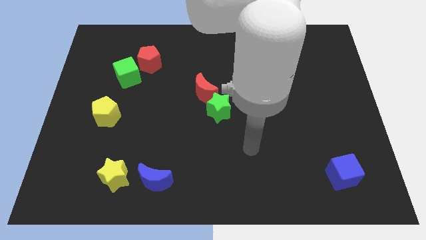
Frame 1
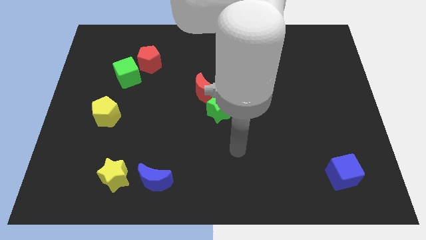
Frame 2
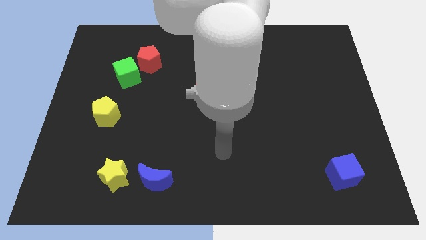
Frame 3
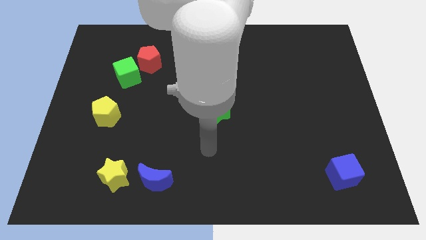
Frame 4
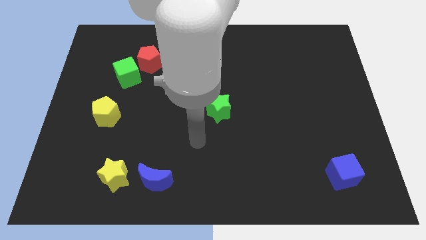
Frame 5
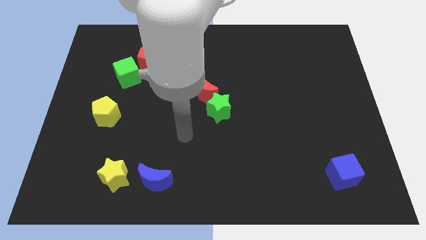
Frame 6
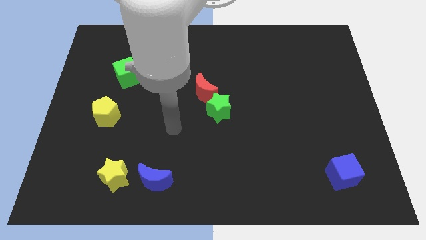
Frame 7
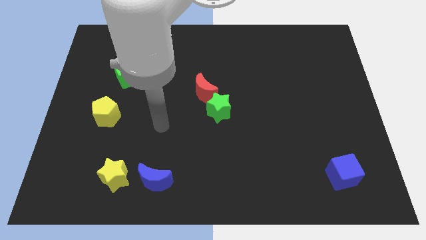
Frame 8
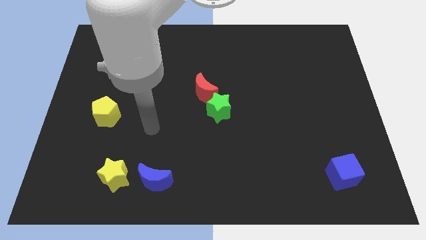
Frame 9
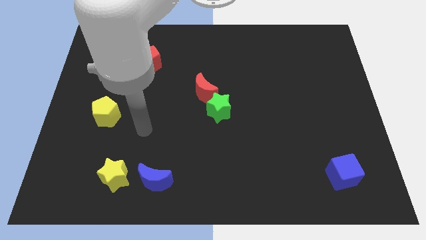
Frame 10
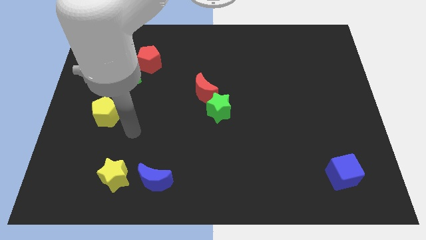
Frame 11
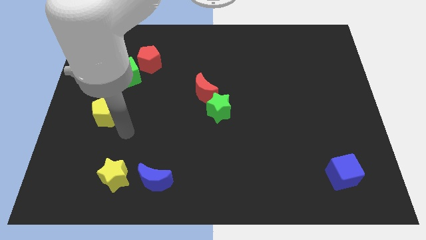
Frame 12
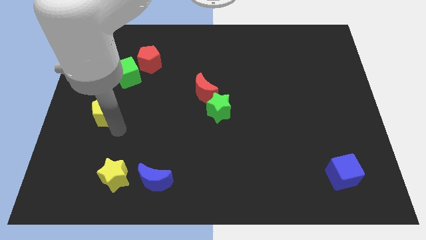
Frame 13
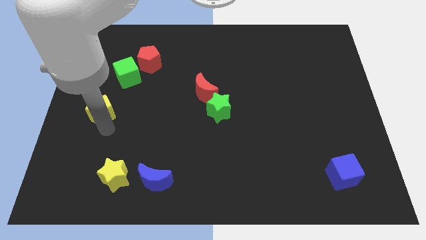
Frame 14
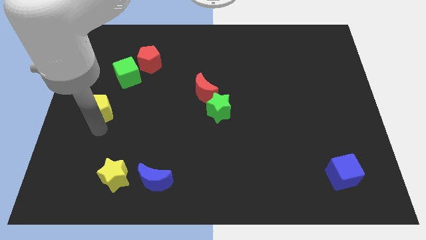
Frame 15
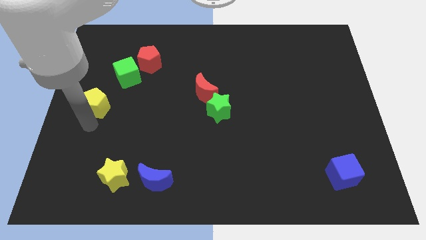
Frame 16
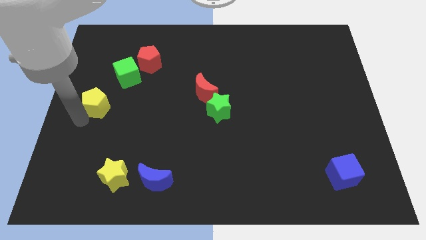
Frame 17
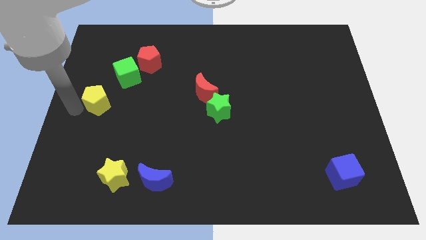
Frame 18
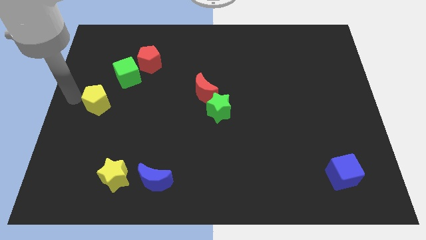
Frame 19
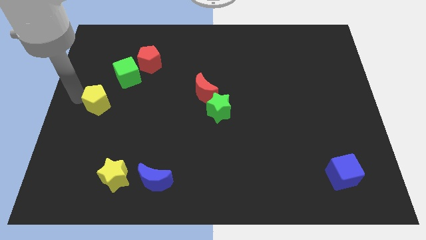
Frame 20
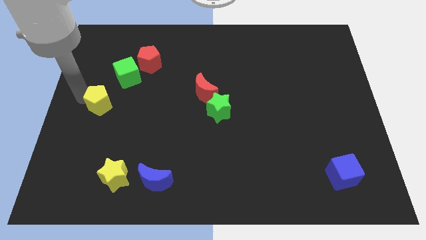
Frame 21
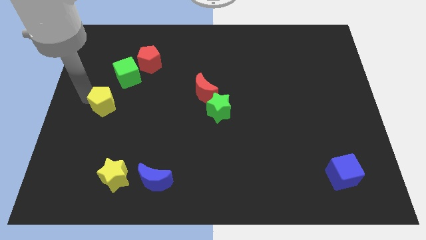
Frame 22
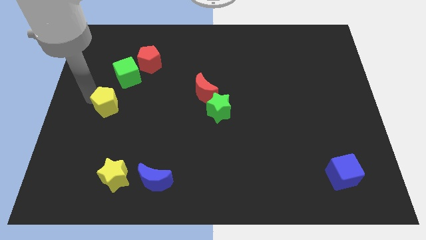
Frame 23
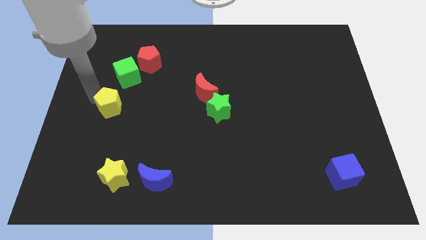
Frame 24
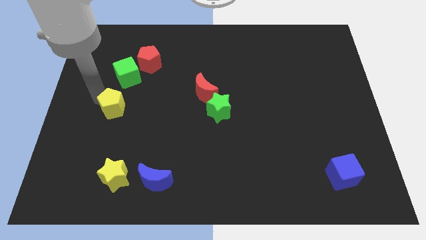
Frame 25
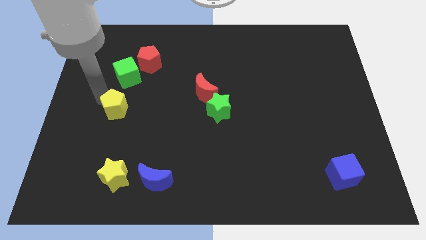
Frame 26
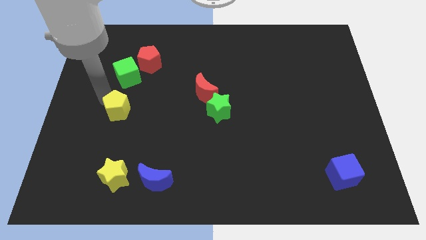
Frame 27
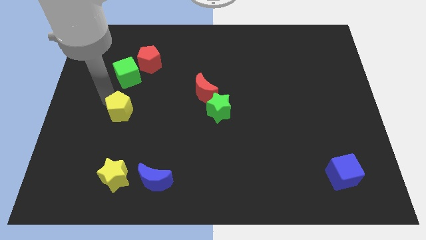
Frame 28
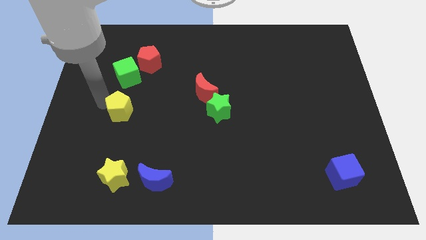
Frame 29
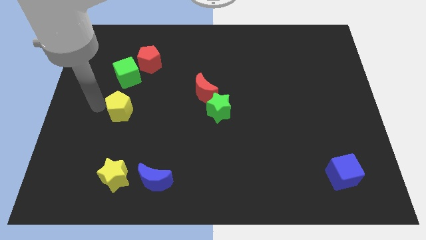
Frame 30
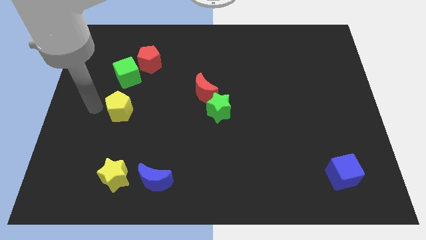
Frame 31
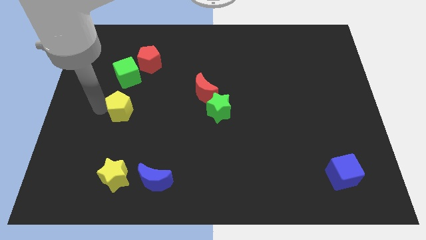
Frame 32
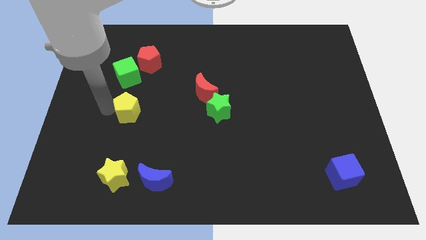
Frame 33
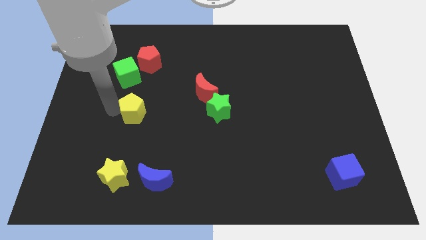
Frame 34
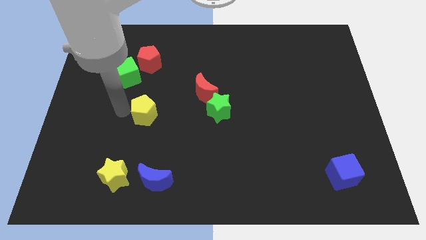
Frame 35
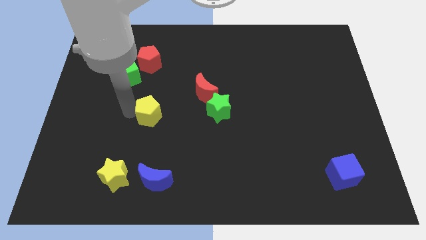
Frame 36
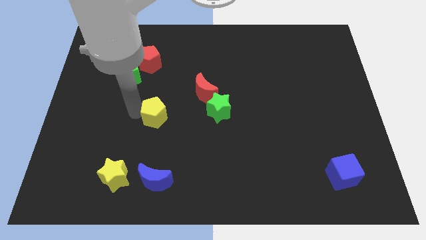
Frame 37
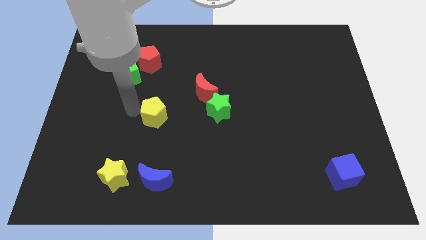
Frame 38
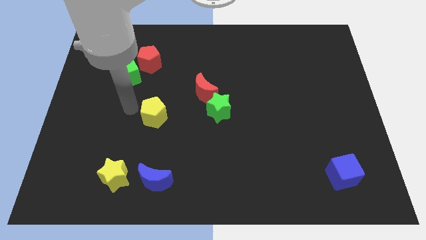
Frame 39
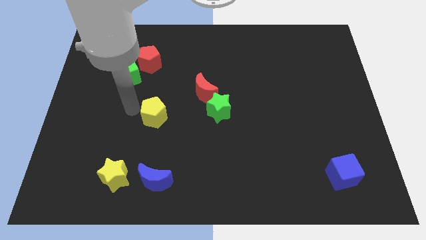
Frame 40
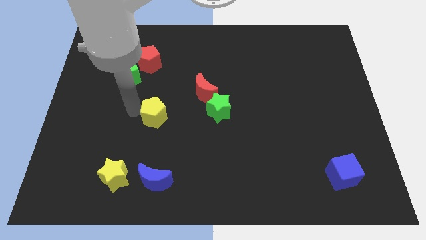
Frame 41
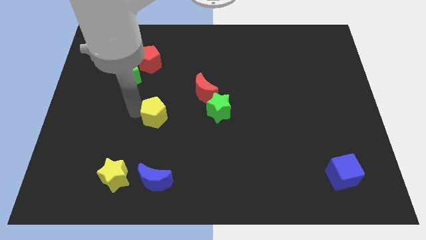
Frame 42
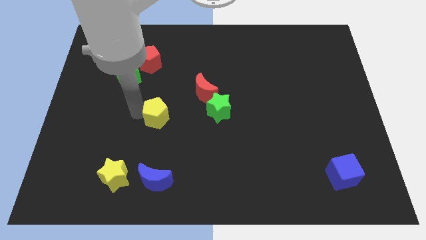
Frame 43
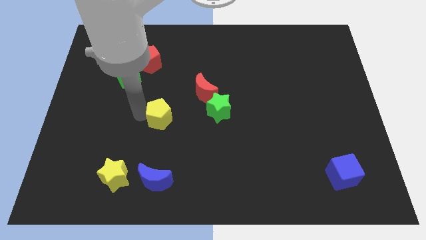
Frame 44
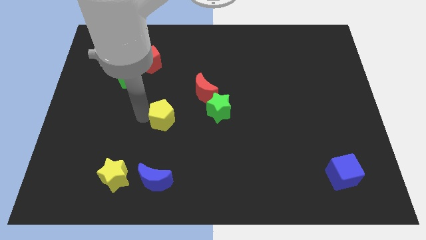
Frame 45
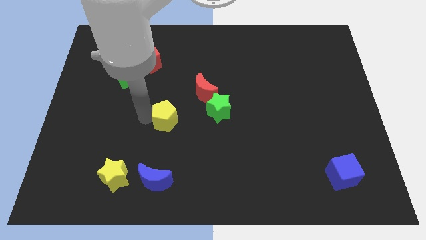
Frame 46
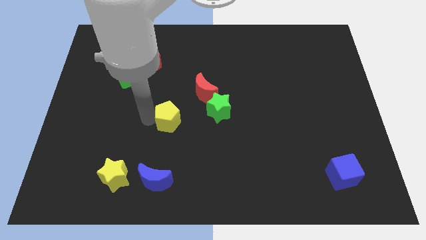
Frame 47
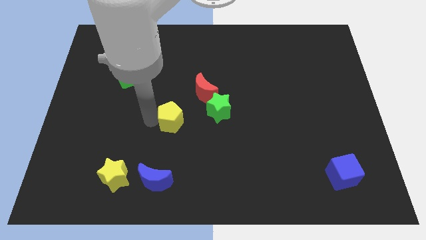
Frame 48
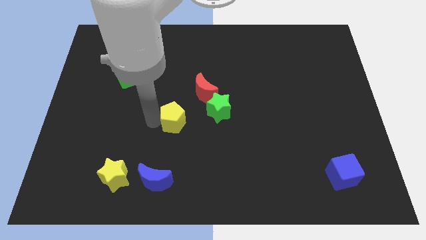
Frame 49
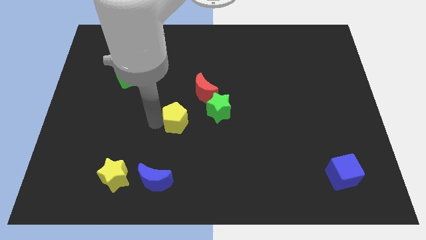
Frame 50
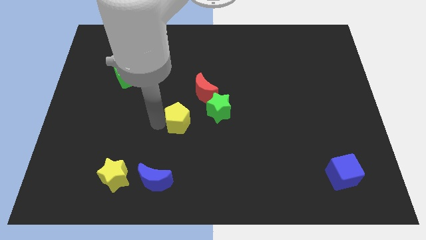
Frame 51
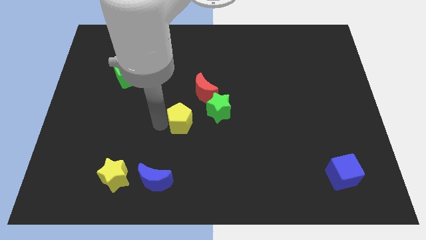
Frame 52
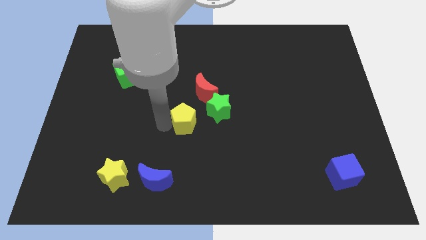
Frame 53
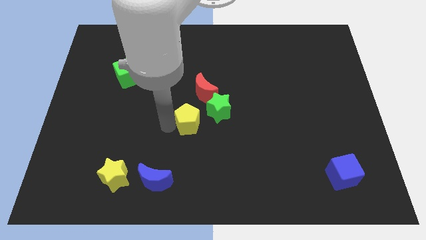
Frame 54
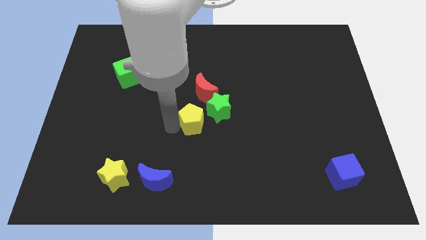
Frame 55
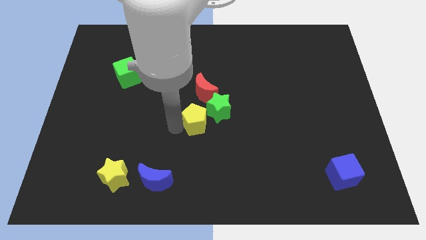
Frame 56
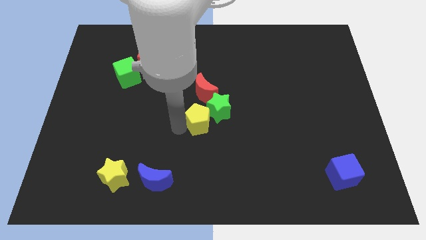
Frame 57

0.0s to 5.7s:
put the yellow pentagon to the green star

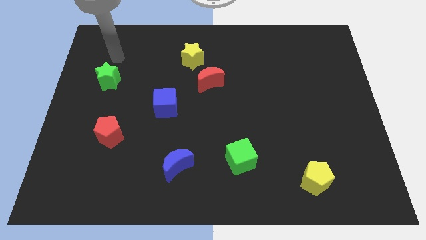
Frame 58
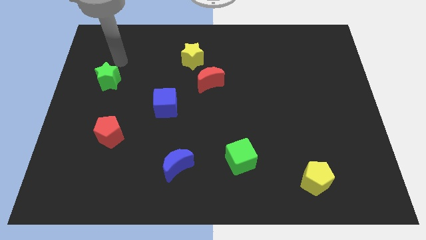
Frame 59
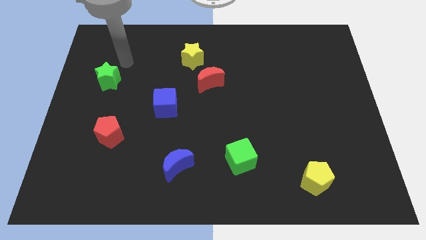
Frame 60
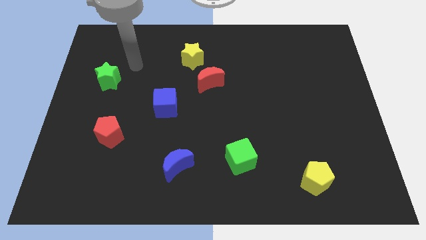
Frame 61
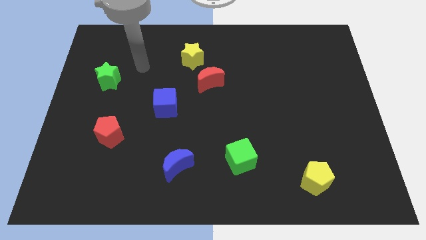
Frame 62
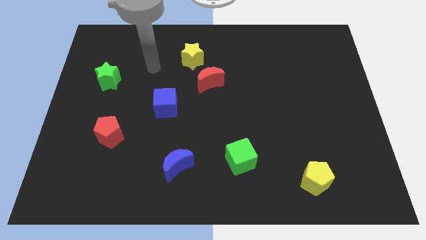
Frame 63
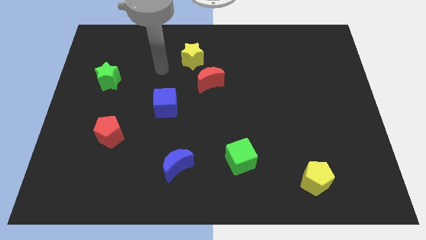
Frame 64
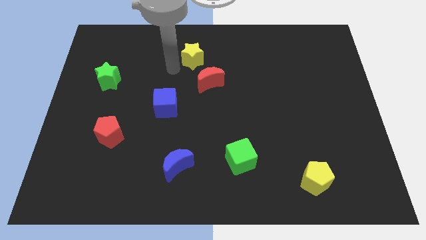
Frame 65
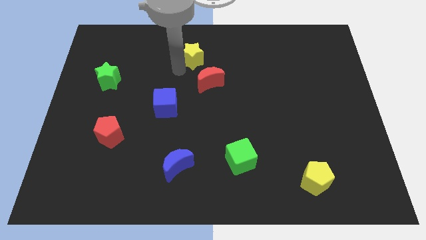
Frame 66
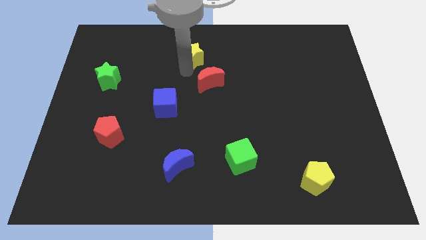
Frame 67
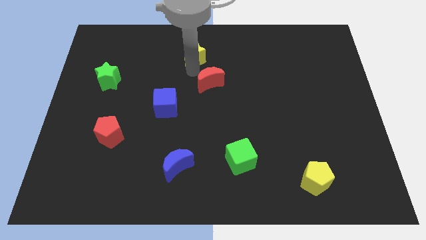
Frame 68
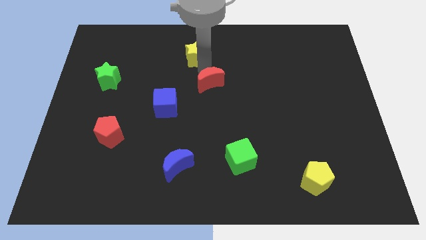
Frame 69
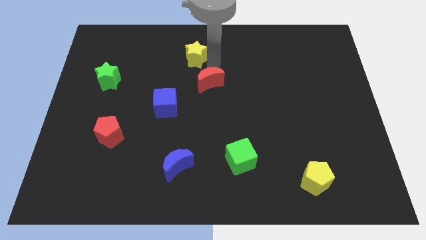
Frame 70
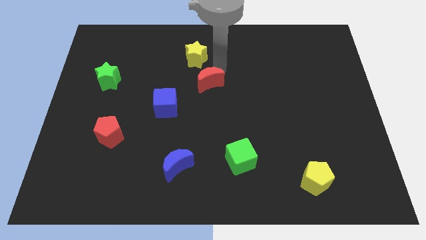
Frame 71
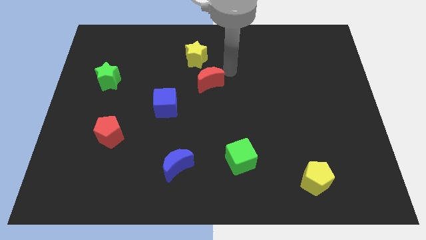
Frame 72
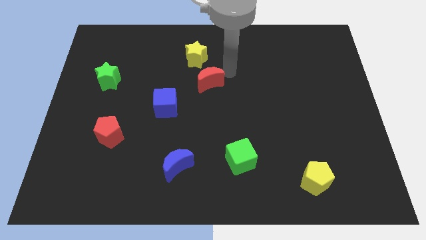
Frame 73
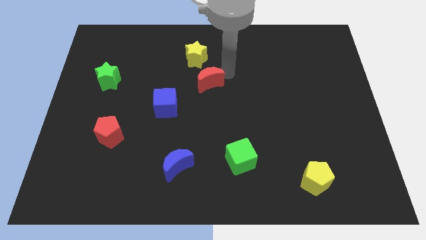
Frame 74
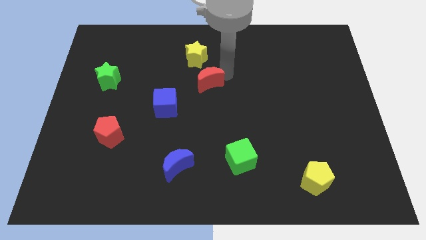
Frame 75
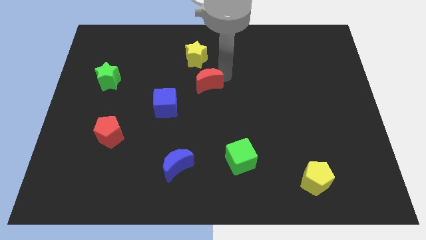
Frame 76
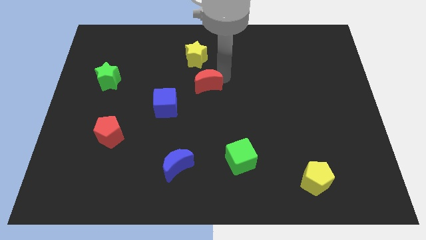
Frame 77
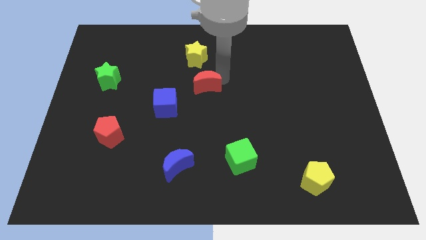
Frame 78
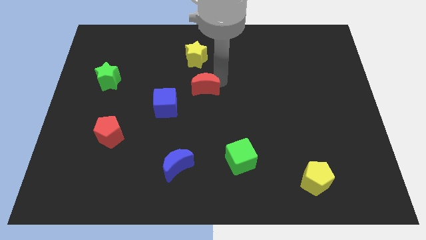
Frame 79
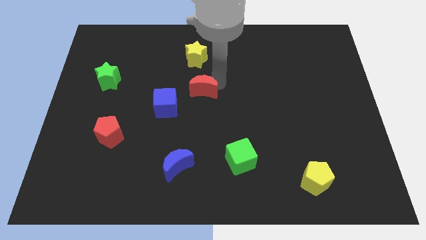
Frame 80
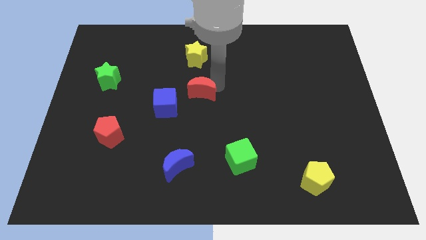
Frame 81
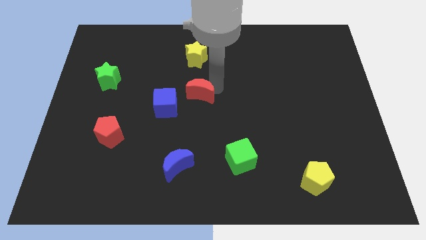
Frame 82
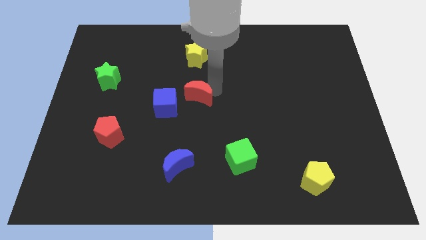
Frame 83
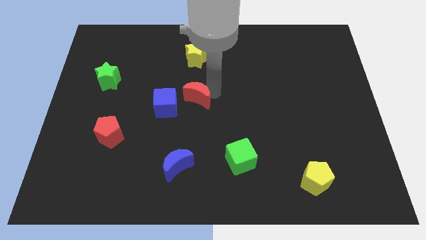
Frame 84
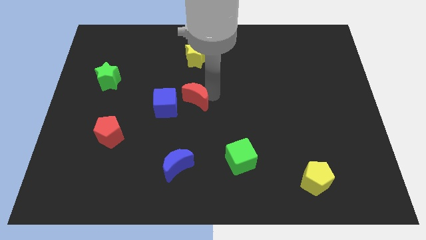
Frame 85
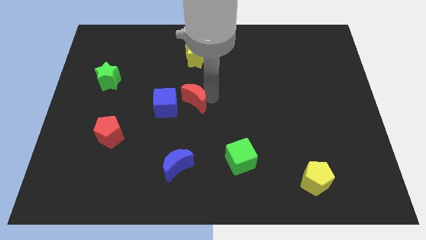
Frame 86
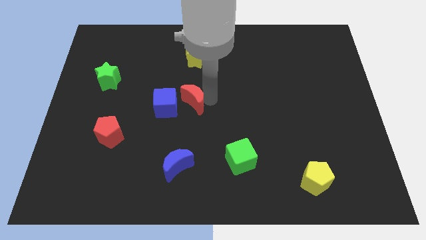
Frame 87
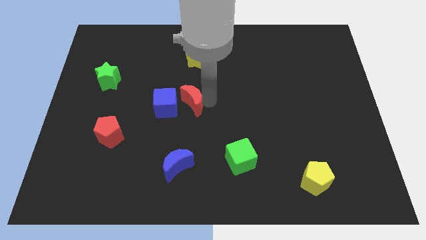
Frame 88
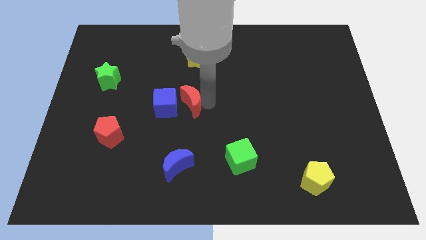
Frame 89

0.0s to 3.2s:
slide the red moon next to the blue cube
